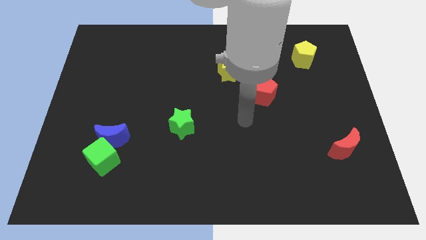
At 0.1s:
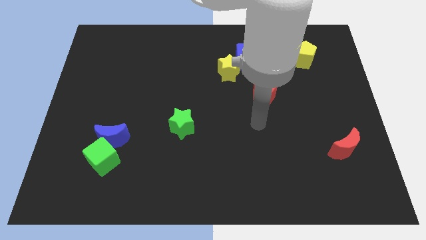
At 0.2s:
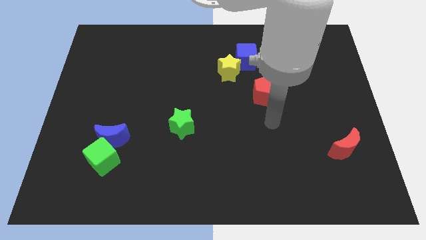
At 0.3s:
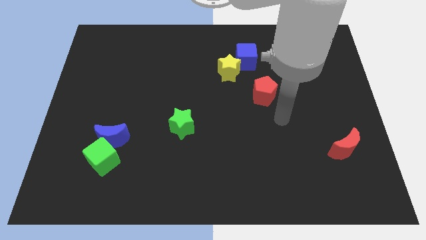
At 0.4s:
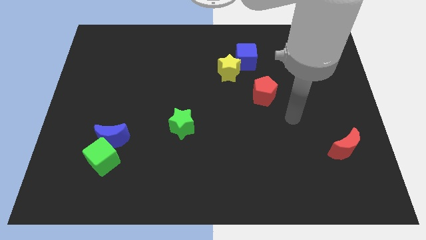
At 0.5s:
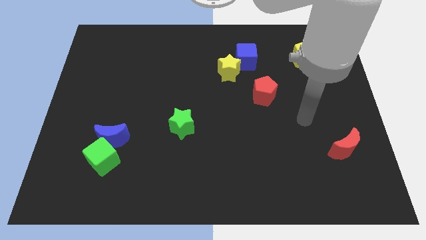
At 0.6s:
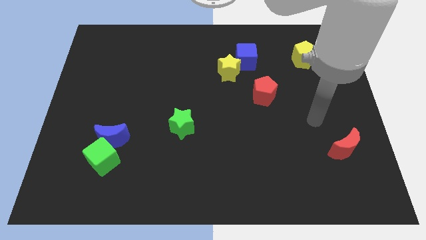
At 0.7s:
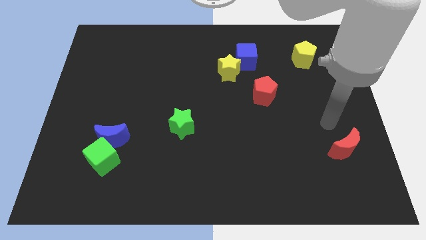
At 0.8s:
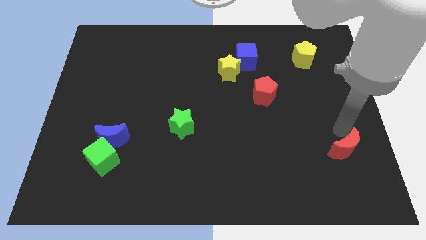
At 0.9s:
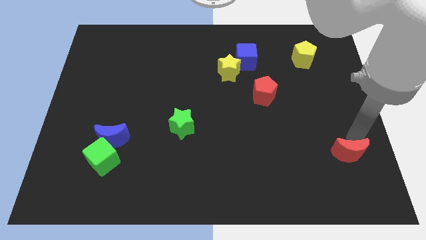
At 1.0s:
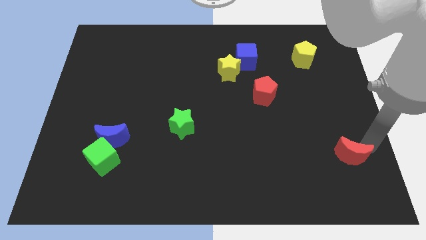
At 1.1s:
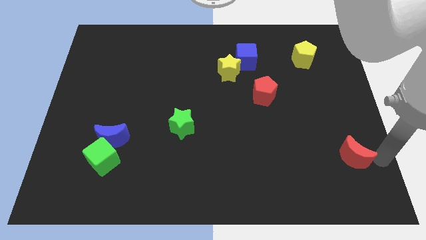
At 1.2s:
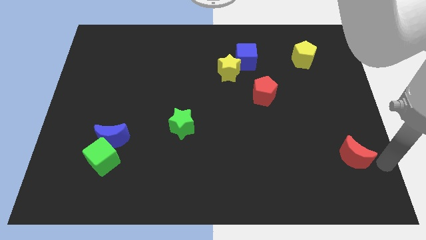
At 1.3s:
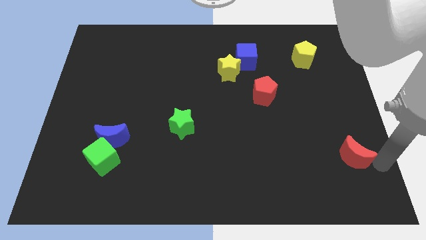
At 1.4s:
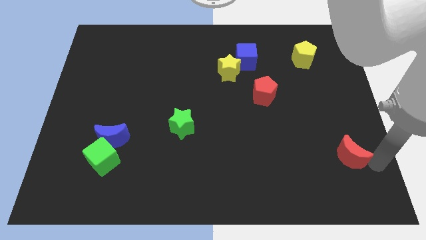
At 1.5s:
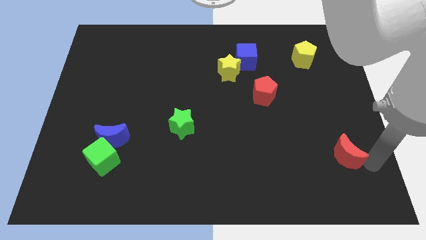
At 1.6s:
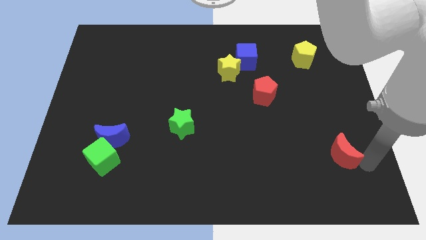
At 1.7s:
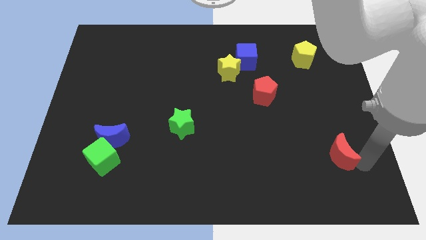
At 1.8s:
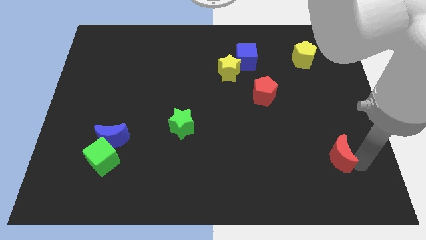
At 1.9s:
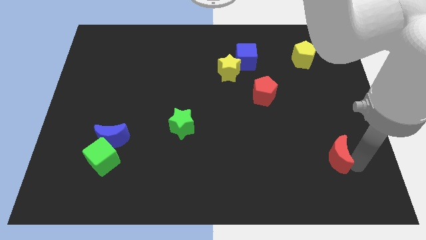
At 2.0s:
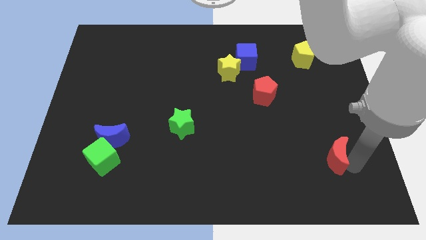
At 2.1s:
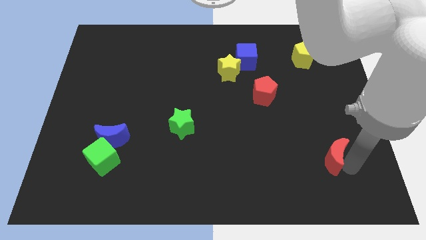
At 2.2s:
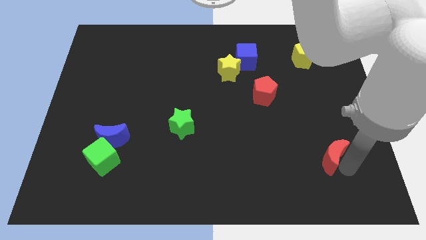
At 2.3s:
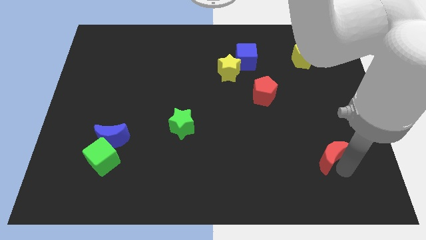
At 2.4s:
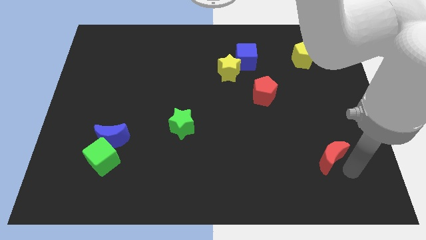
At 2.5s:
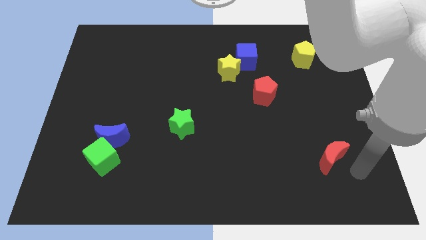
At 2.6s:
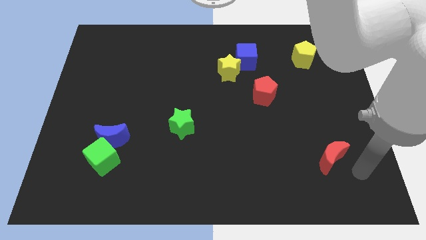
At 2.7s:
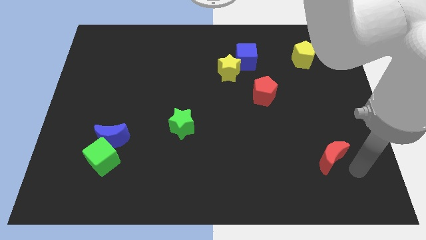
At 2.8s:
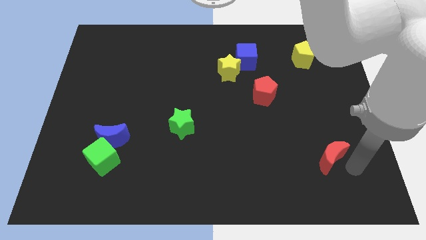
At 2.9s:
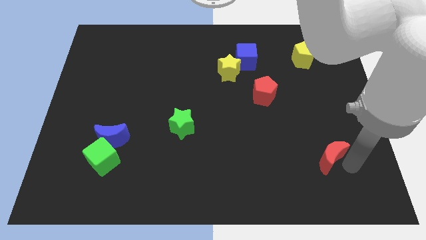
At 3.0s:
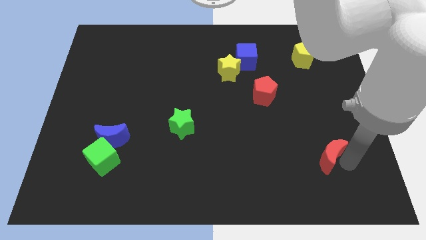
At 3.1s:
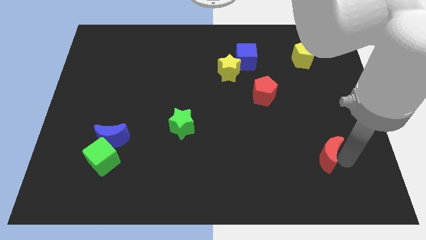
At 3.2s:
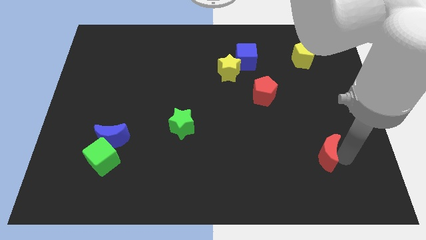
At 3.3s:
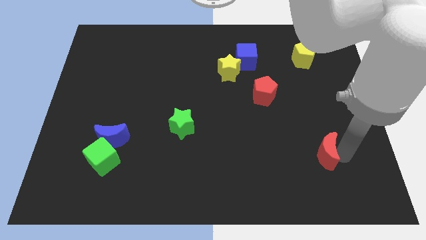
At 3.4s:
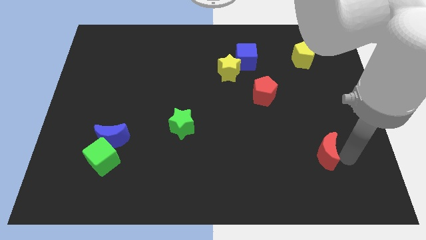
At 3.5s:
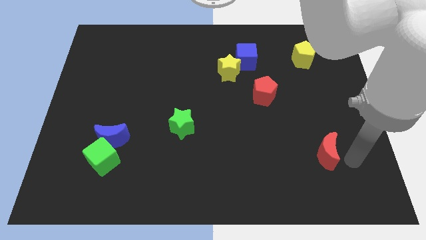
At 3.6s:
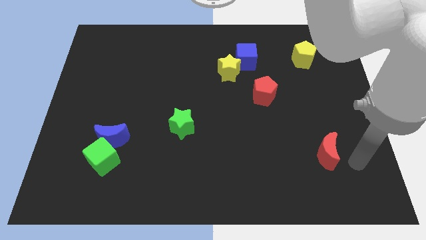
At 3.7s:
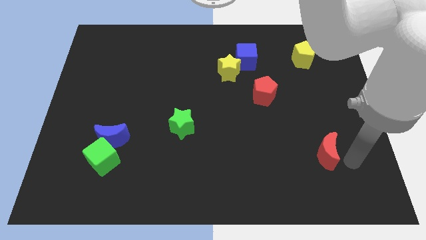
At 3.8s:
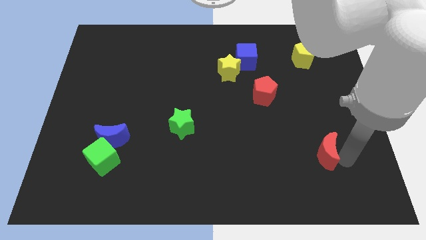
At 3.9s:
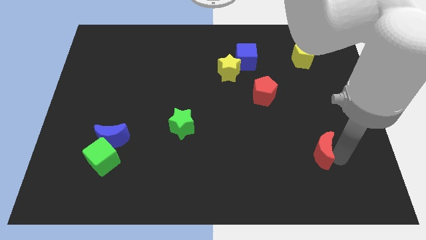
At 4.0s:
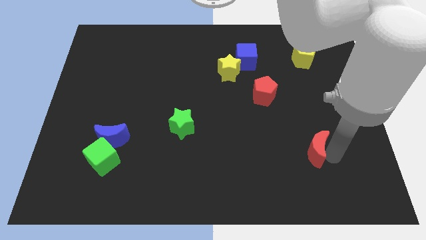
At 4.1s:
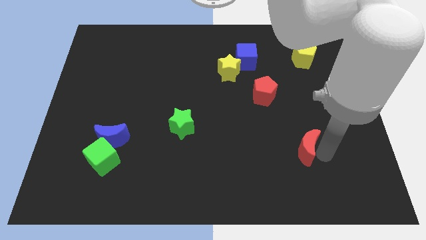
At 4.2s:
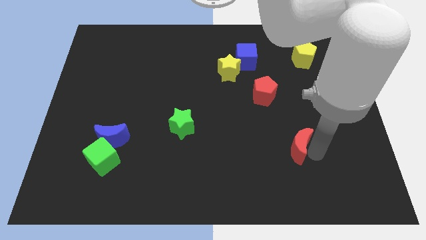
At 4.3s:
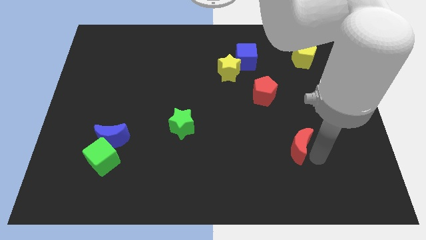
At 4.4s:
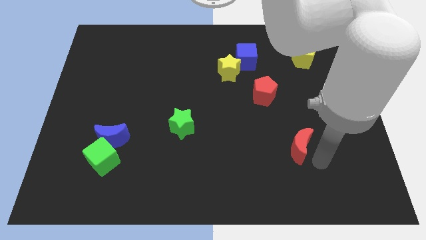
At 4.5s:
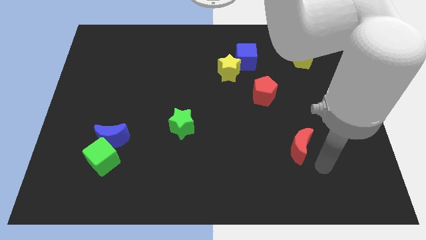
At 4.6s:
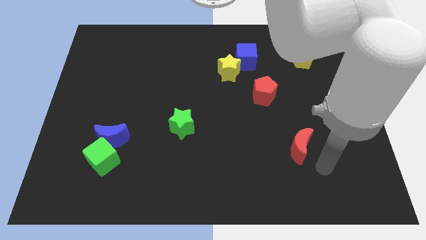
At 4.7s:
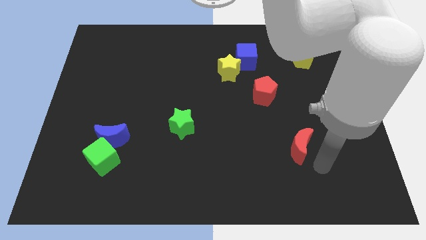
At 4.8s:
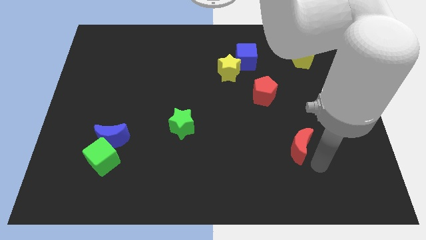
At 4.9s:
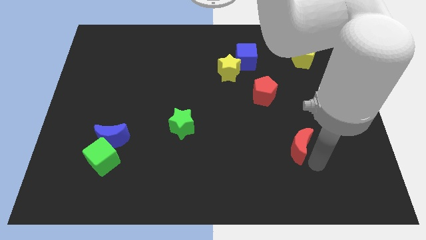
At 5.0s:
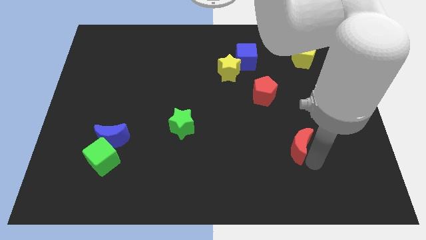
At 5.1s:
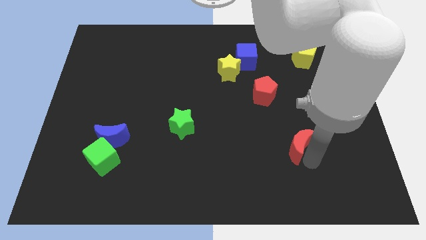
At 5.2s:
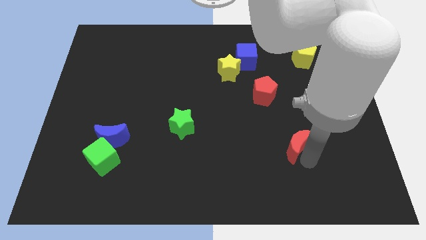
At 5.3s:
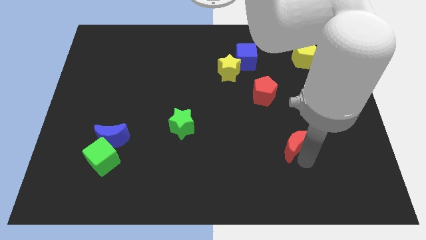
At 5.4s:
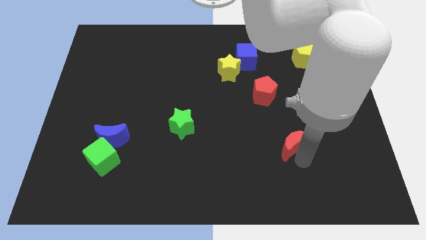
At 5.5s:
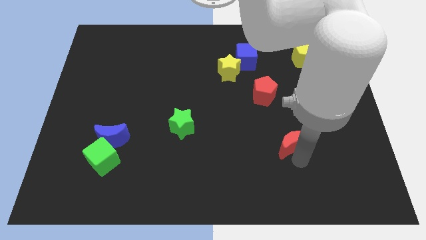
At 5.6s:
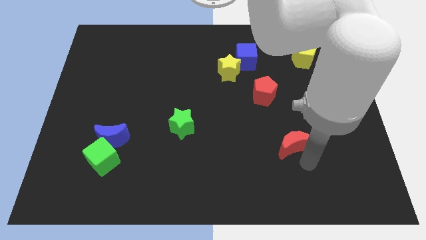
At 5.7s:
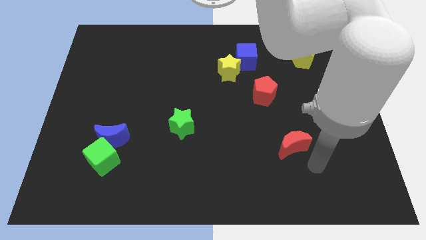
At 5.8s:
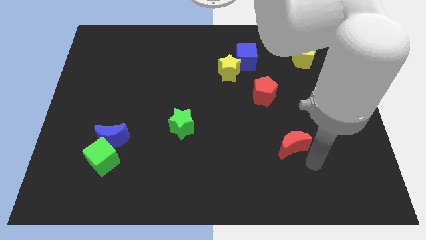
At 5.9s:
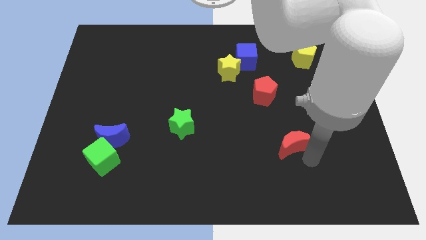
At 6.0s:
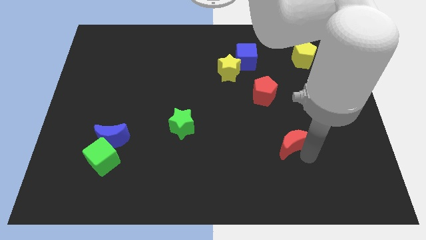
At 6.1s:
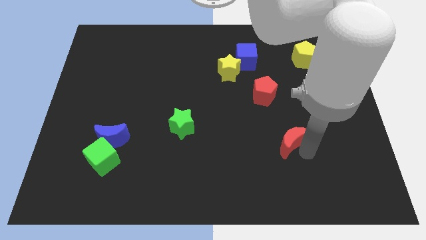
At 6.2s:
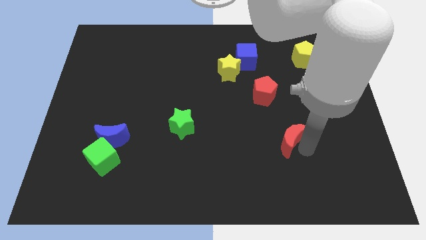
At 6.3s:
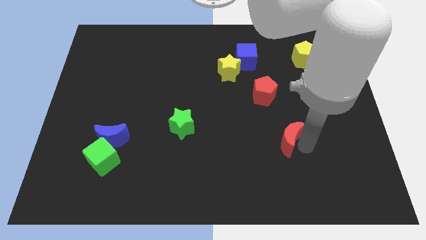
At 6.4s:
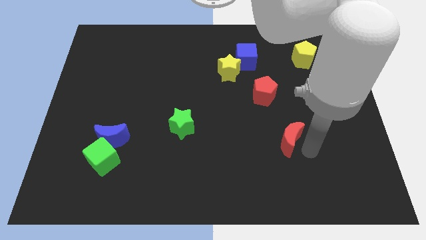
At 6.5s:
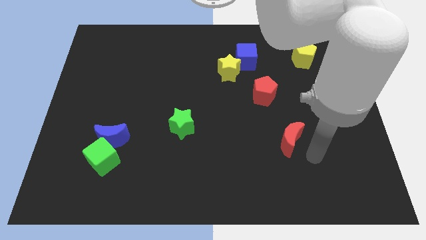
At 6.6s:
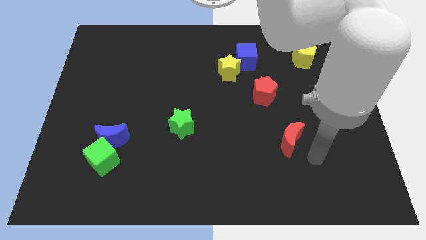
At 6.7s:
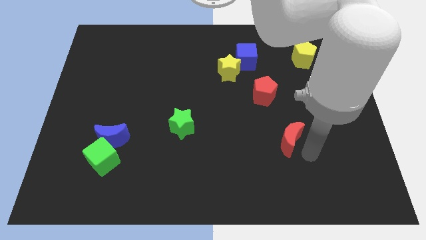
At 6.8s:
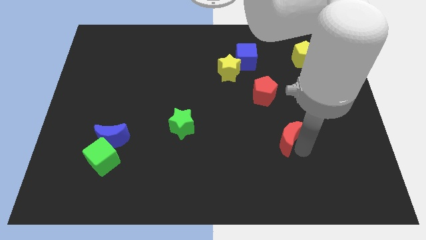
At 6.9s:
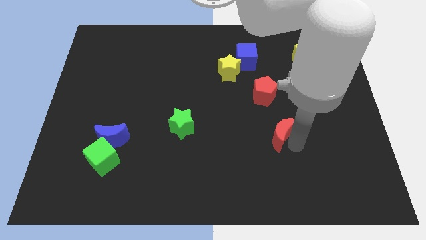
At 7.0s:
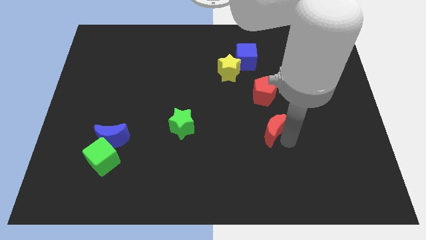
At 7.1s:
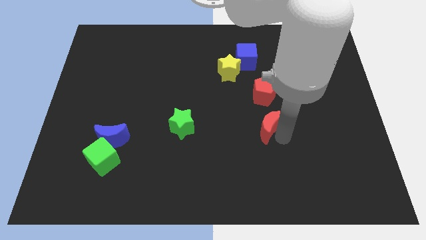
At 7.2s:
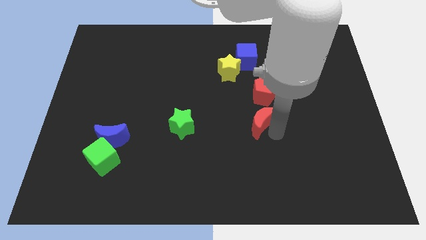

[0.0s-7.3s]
push the red moon to the middle of the board
